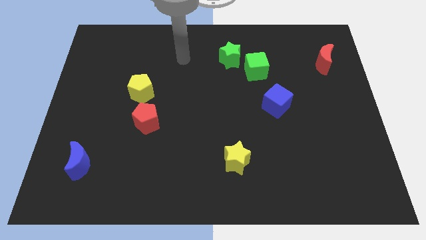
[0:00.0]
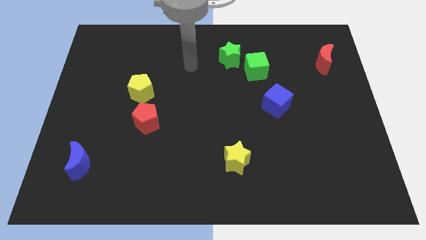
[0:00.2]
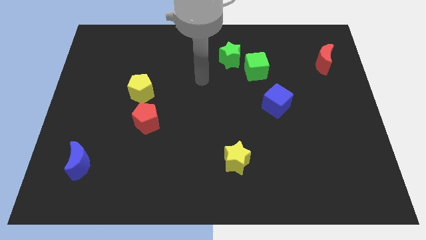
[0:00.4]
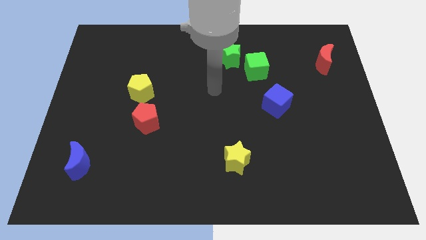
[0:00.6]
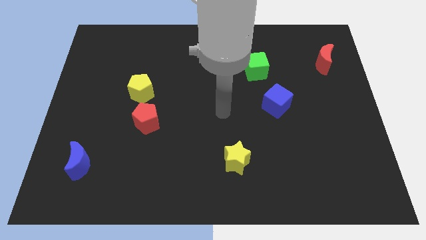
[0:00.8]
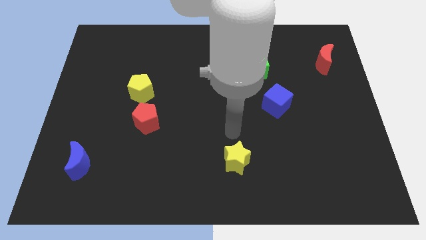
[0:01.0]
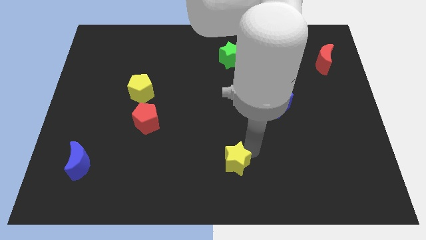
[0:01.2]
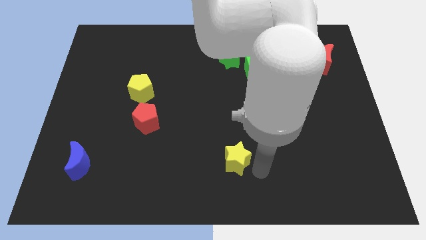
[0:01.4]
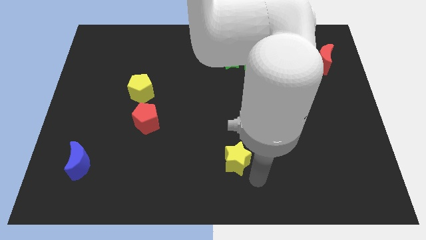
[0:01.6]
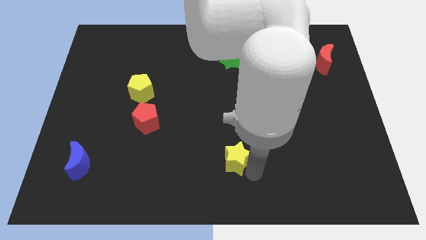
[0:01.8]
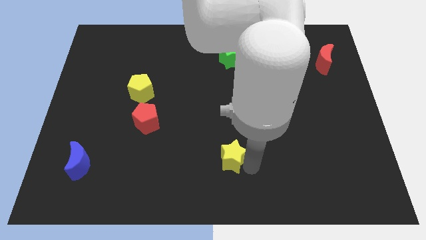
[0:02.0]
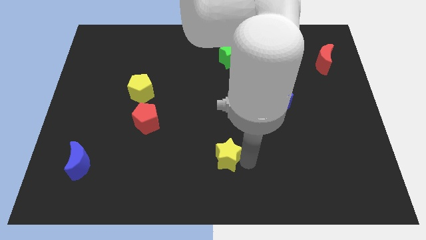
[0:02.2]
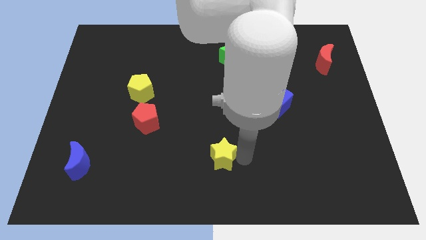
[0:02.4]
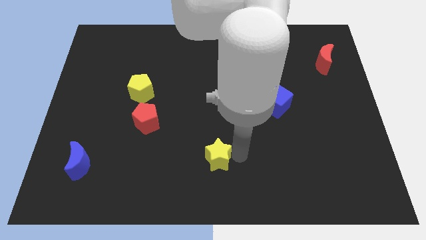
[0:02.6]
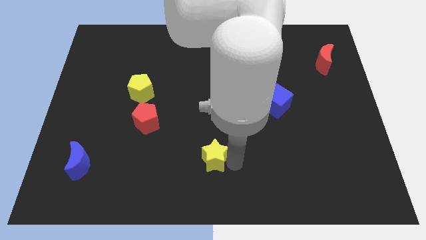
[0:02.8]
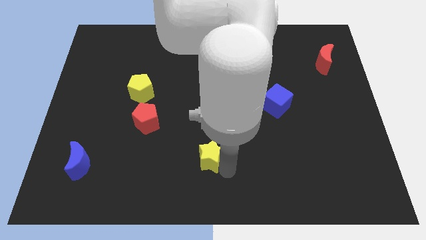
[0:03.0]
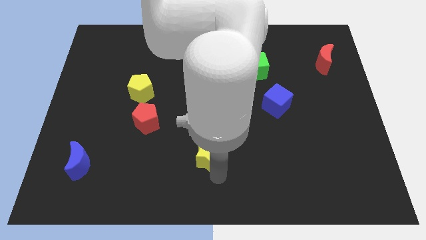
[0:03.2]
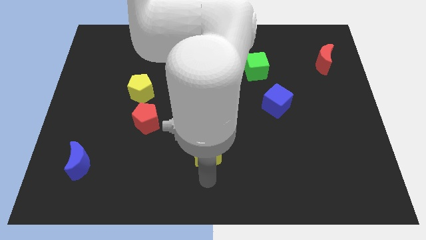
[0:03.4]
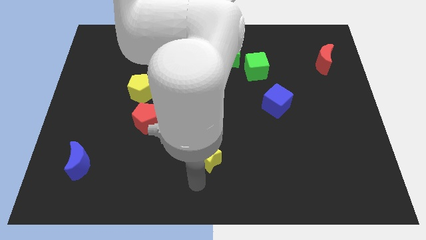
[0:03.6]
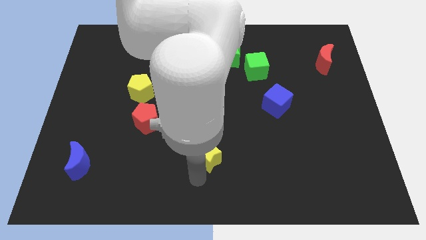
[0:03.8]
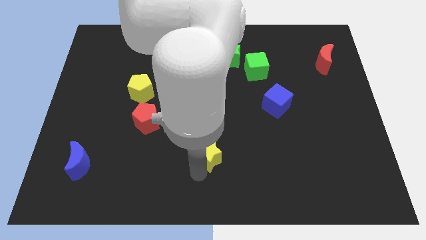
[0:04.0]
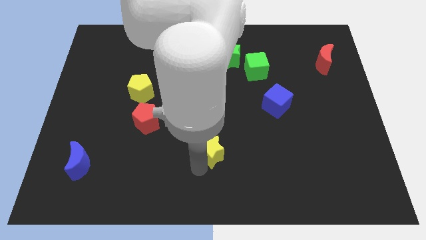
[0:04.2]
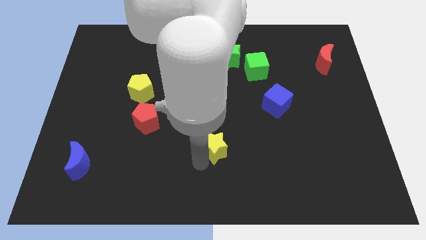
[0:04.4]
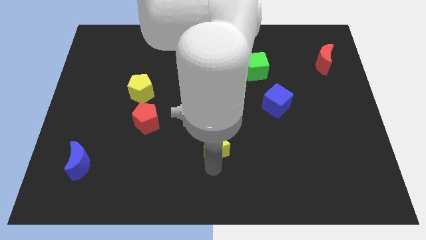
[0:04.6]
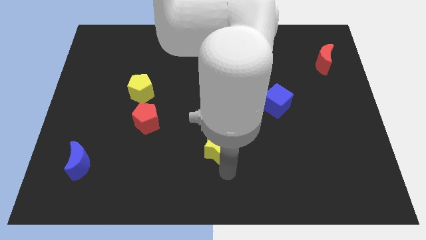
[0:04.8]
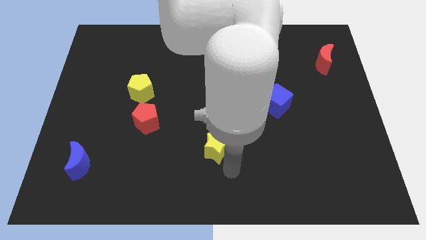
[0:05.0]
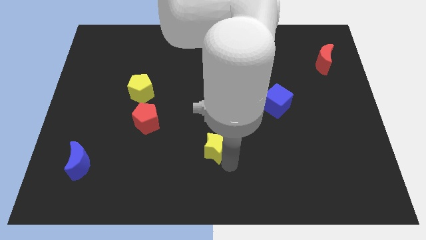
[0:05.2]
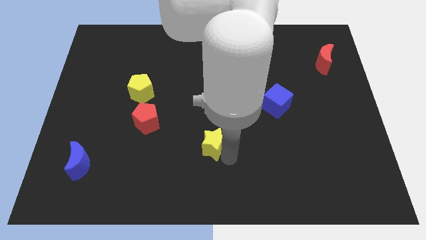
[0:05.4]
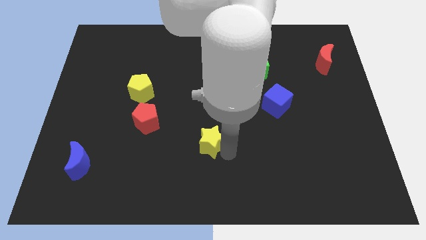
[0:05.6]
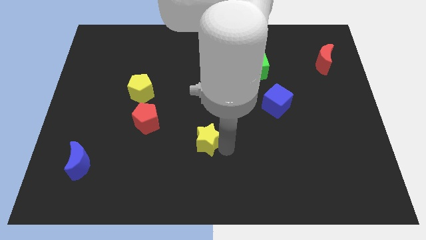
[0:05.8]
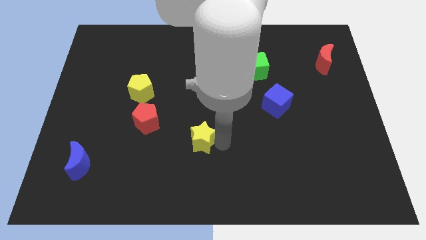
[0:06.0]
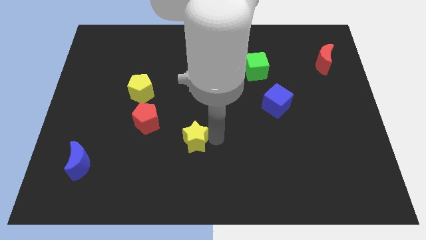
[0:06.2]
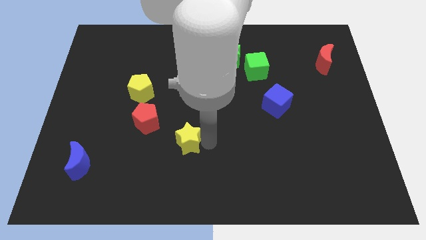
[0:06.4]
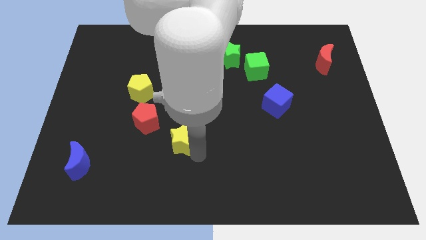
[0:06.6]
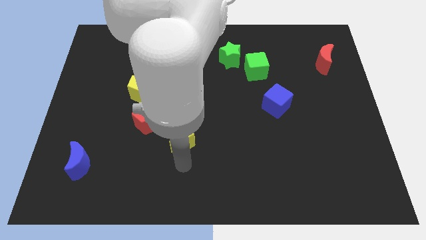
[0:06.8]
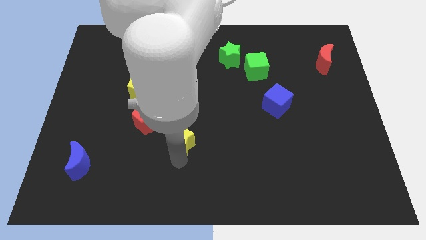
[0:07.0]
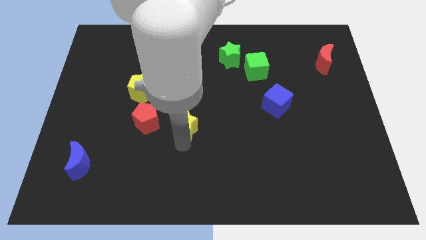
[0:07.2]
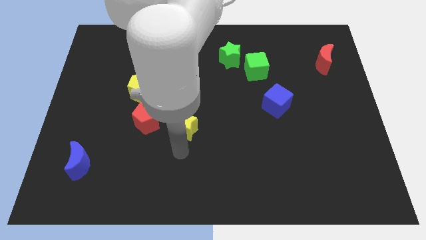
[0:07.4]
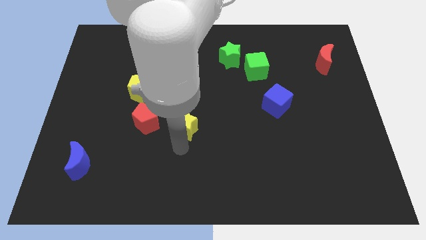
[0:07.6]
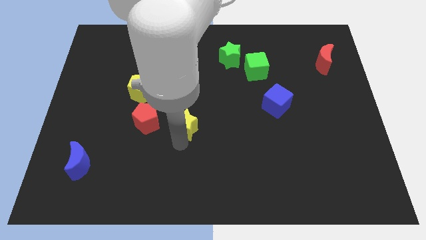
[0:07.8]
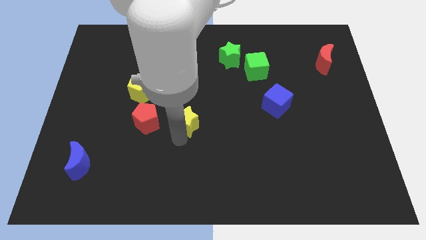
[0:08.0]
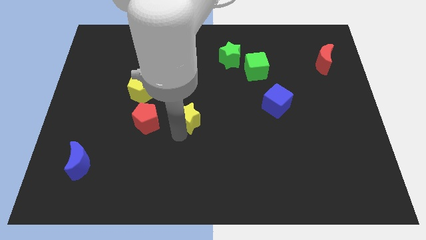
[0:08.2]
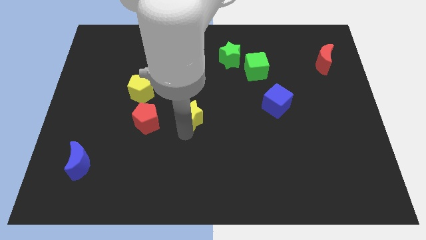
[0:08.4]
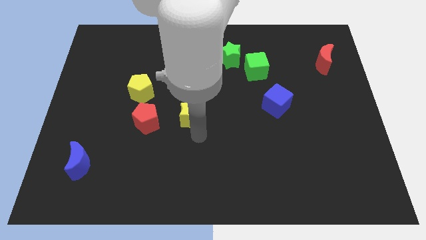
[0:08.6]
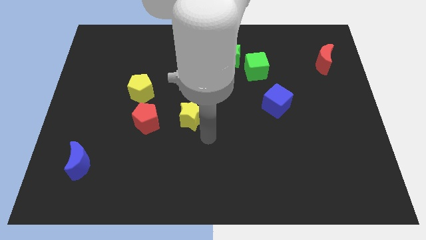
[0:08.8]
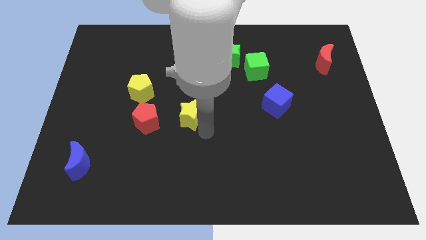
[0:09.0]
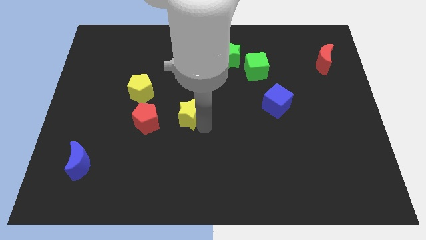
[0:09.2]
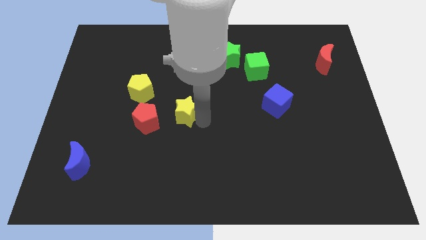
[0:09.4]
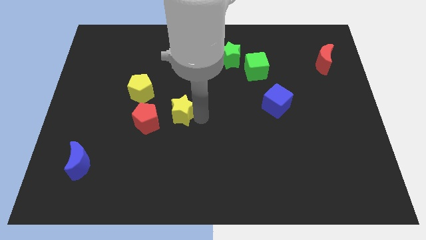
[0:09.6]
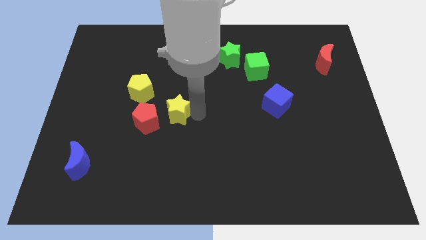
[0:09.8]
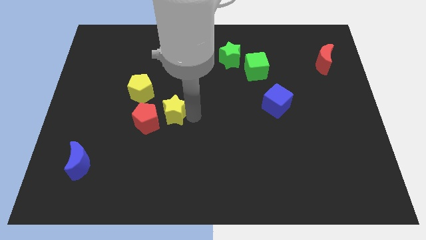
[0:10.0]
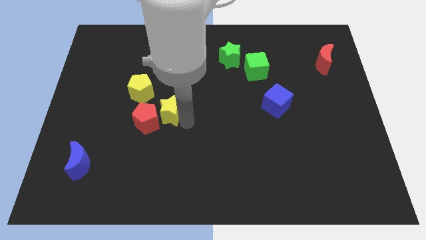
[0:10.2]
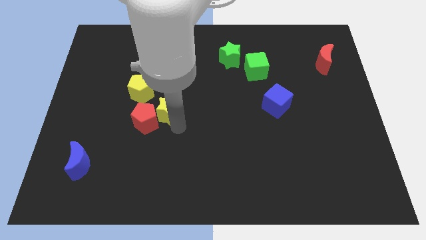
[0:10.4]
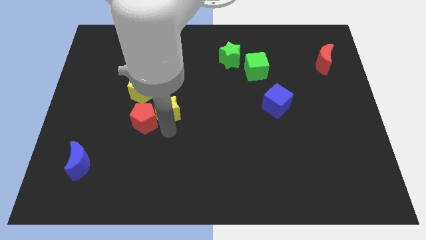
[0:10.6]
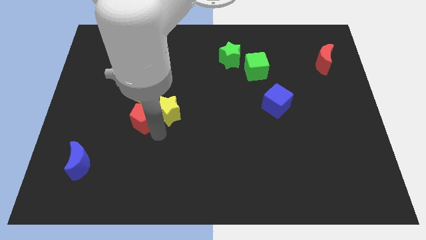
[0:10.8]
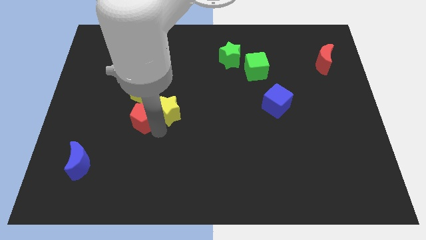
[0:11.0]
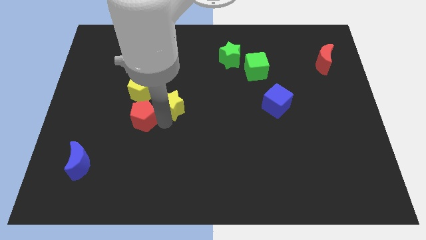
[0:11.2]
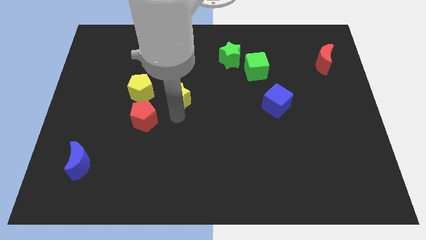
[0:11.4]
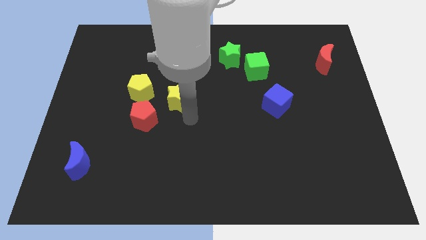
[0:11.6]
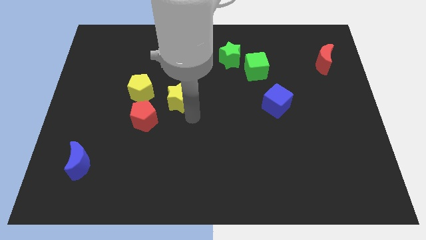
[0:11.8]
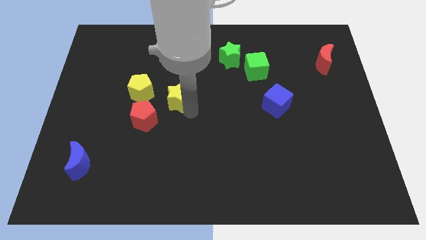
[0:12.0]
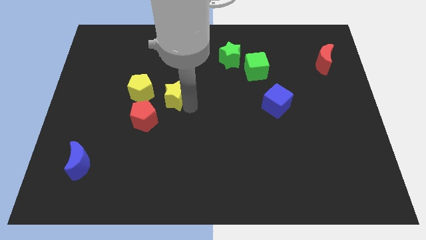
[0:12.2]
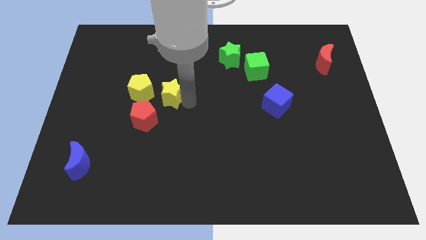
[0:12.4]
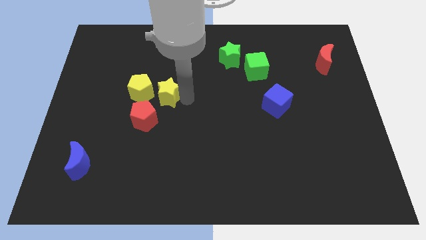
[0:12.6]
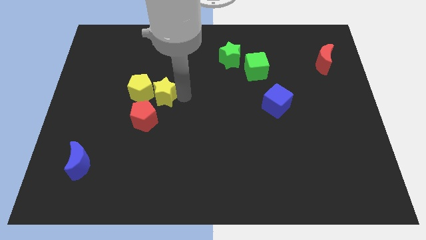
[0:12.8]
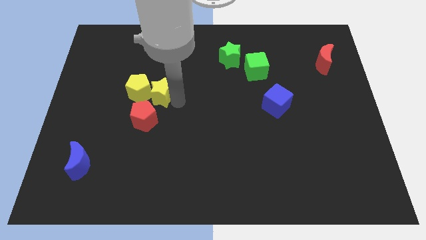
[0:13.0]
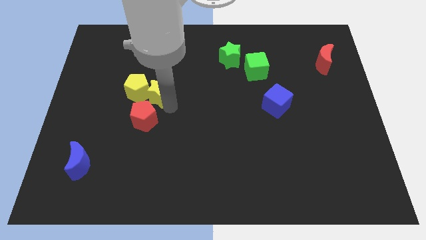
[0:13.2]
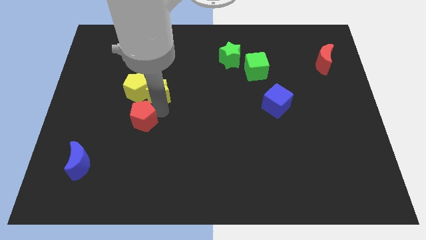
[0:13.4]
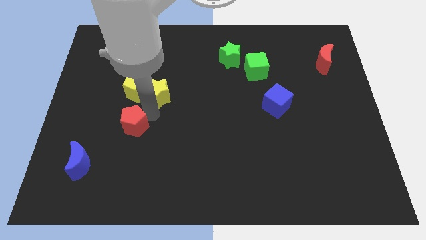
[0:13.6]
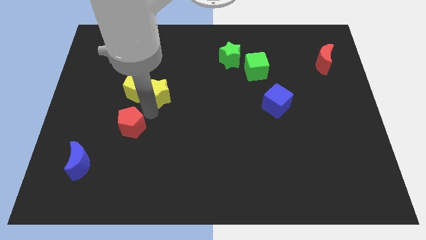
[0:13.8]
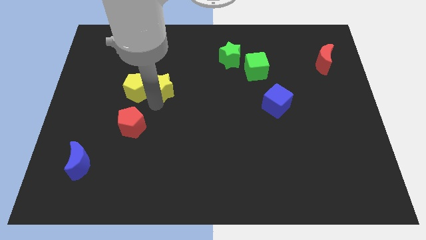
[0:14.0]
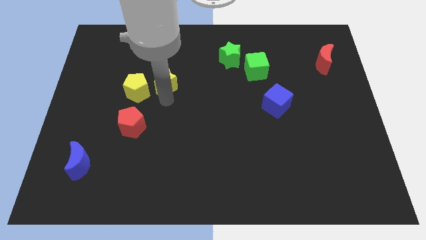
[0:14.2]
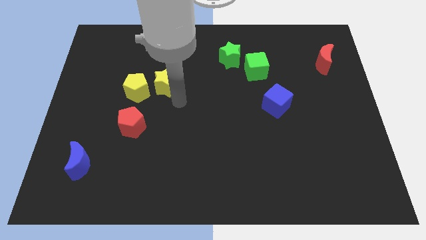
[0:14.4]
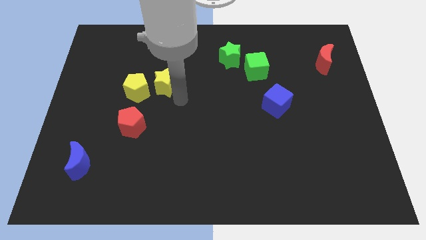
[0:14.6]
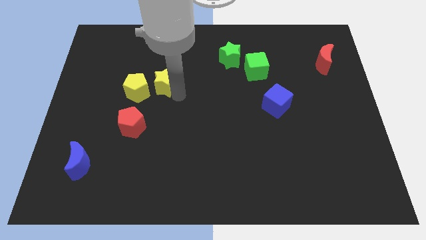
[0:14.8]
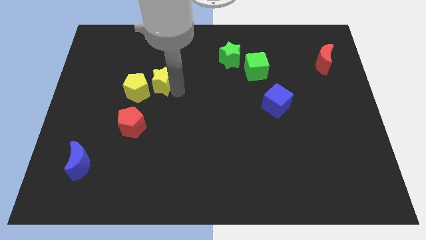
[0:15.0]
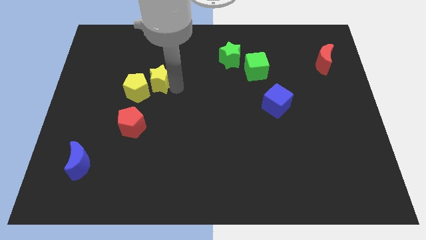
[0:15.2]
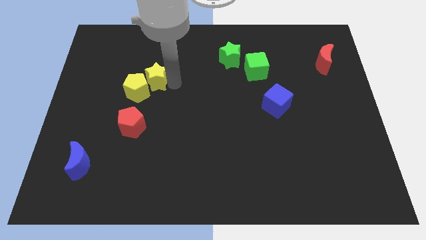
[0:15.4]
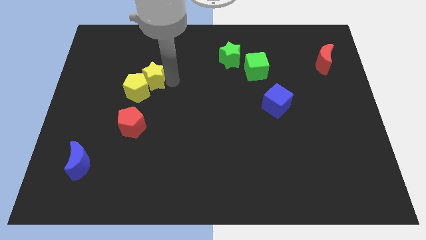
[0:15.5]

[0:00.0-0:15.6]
push the yellow star to the top of the yellow pentagon
